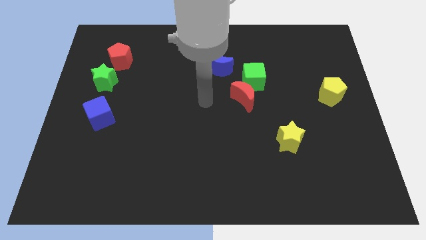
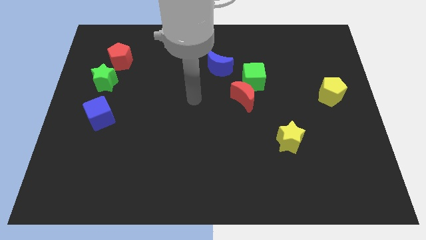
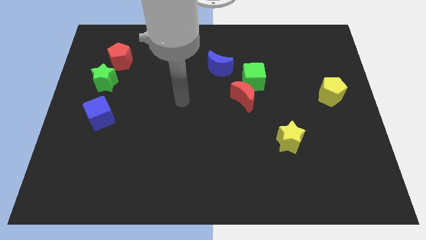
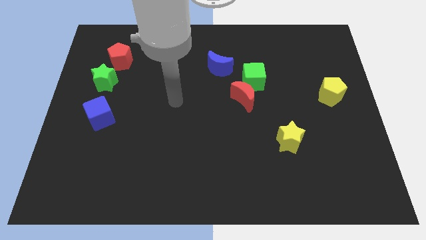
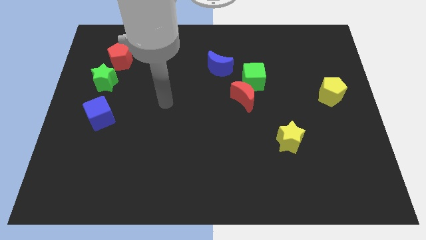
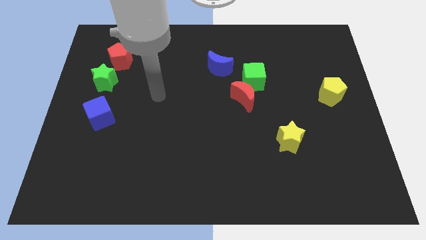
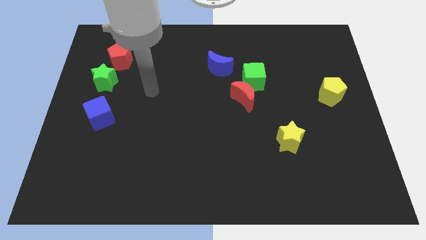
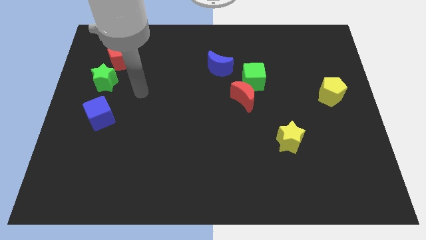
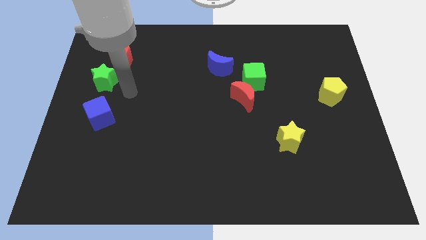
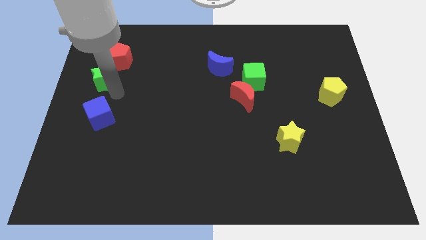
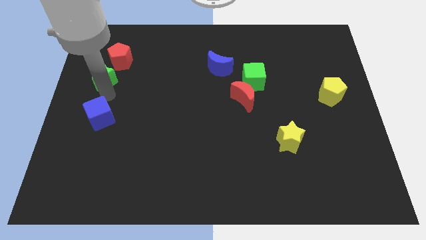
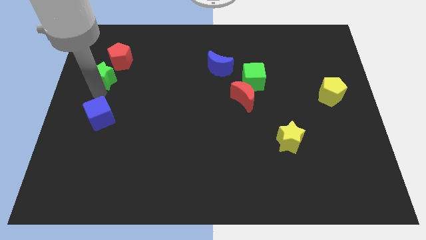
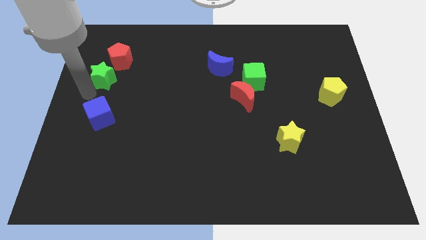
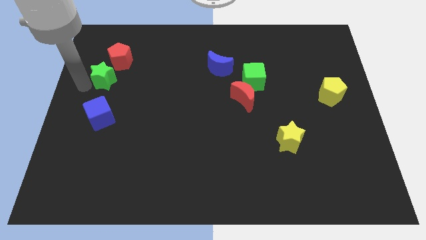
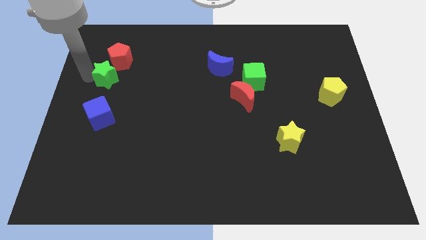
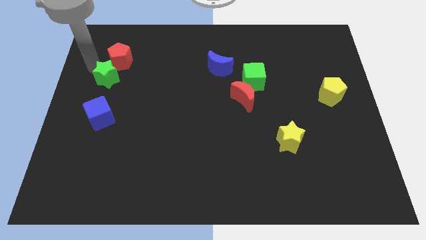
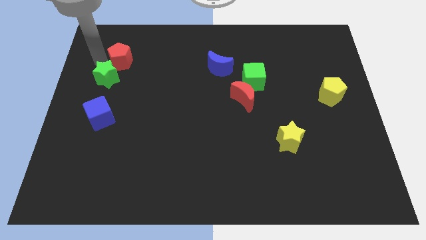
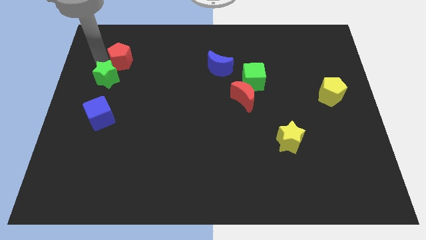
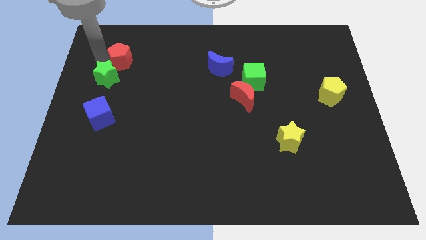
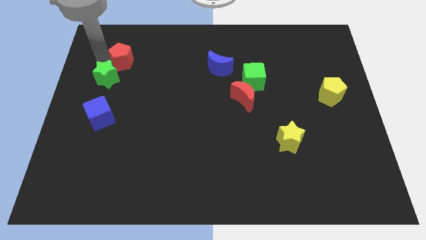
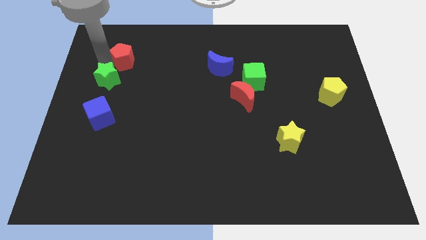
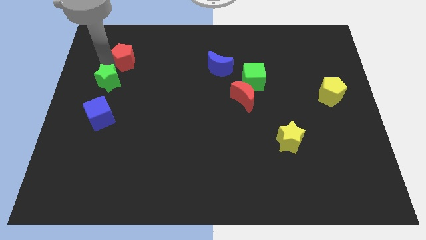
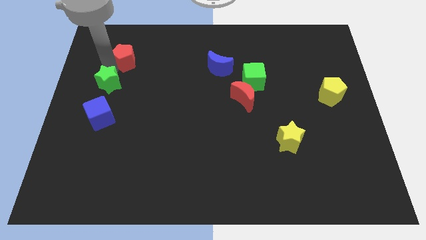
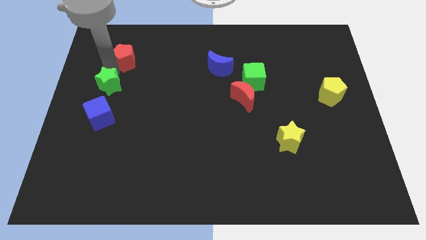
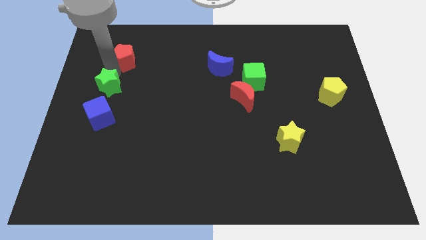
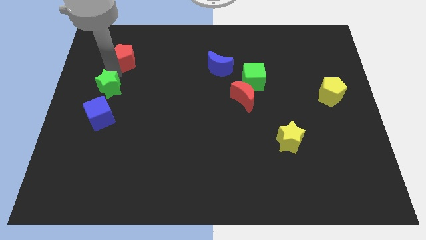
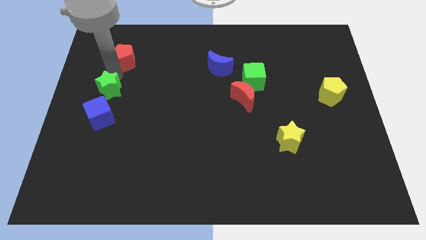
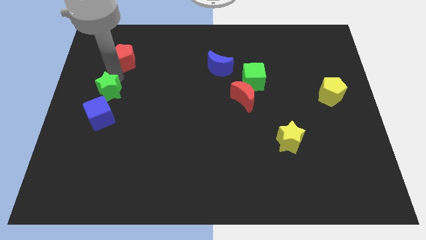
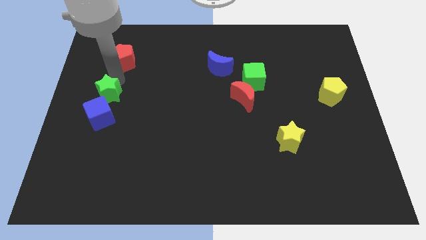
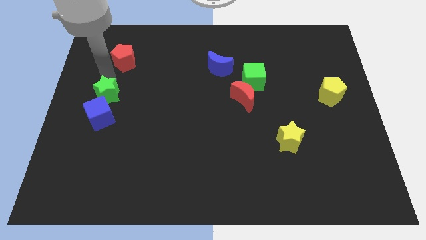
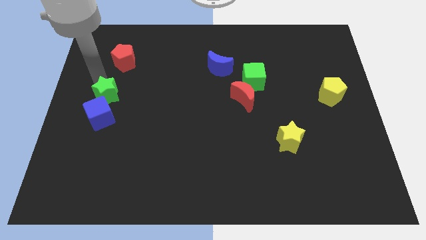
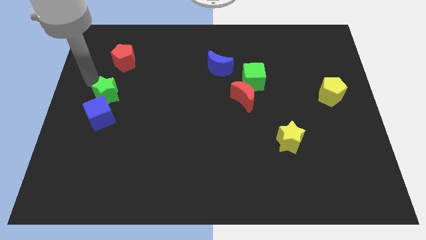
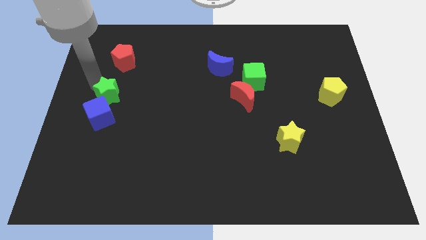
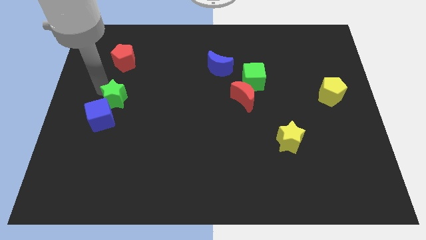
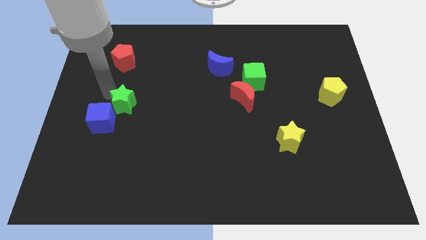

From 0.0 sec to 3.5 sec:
slightly move the green star down and right

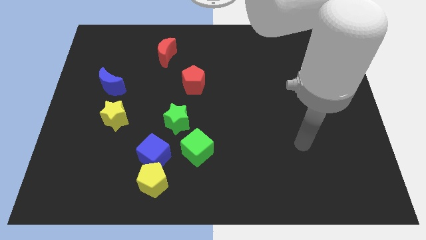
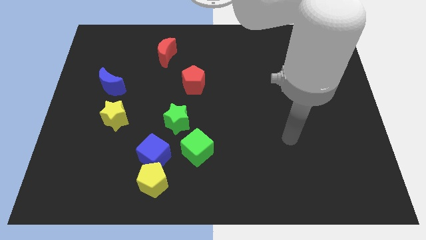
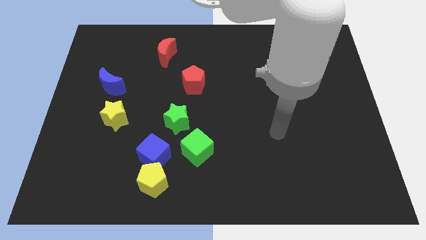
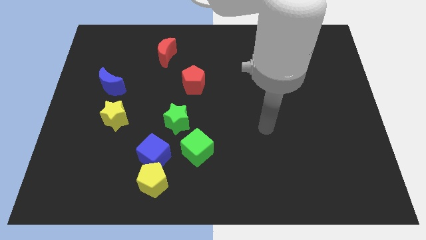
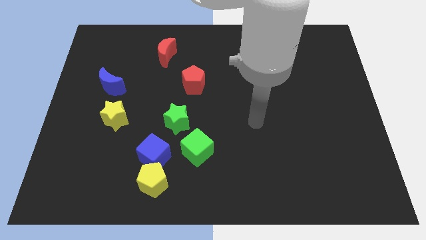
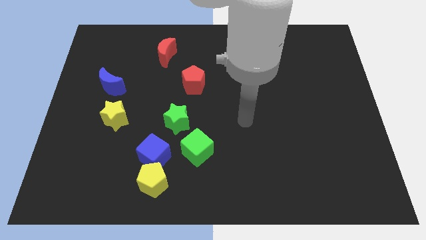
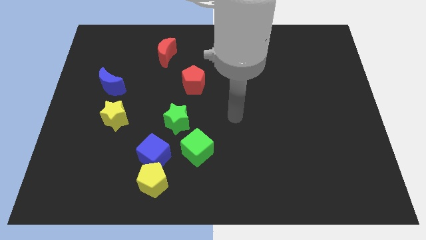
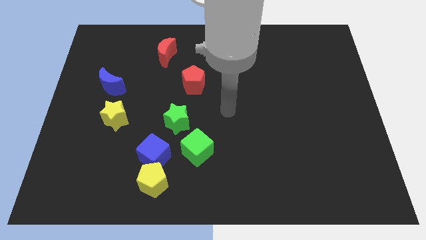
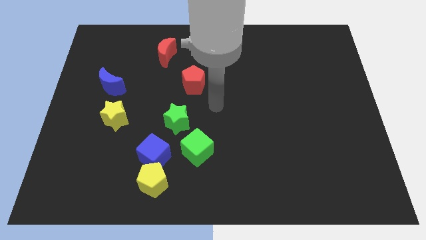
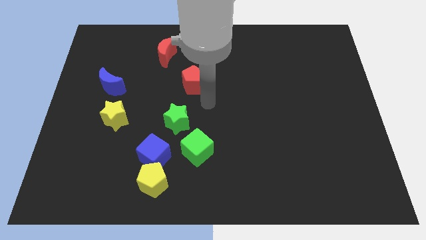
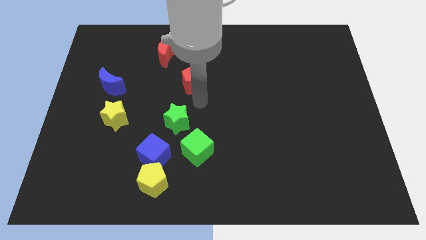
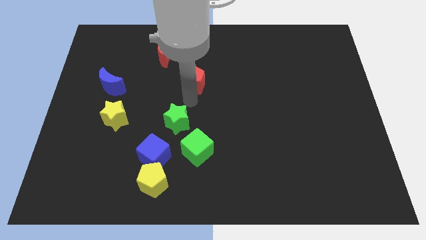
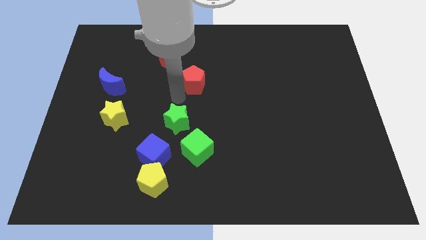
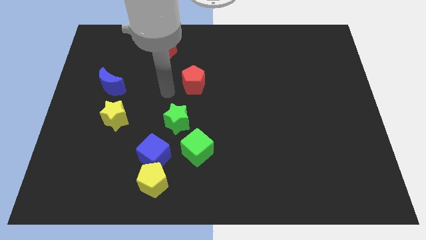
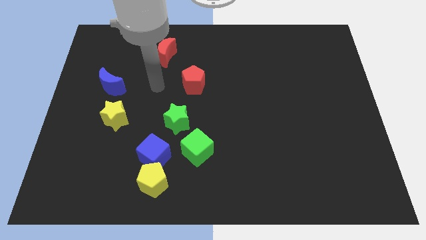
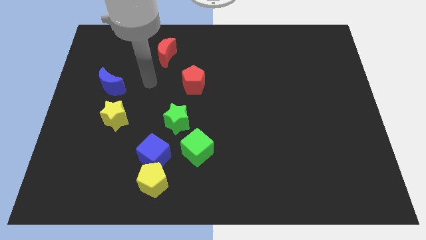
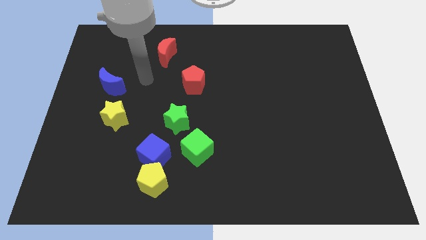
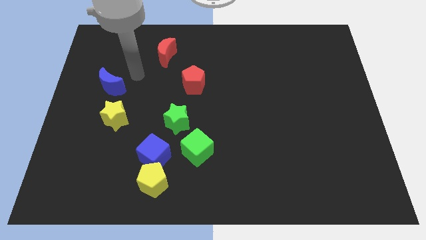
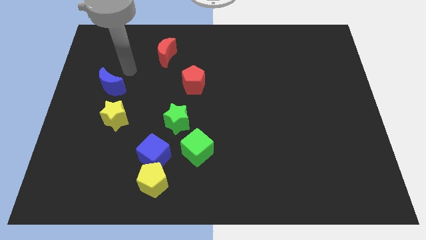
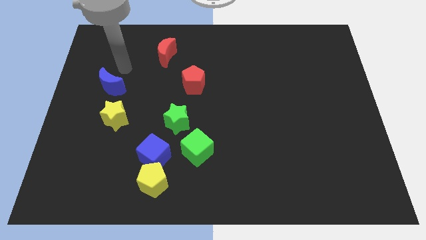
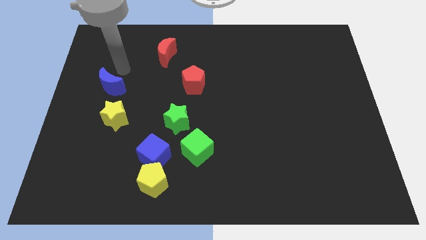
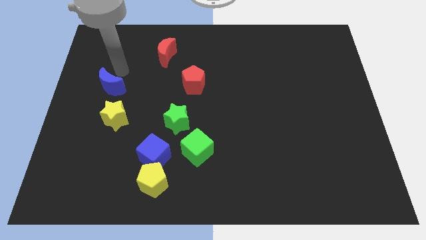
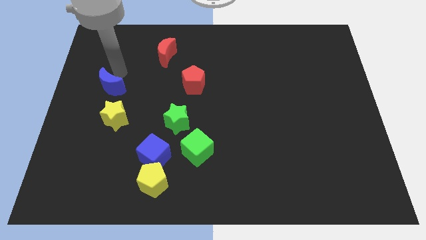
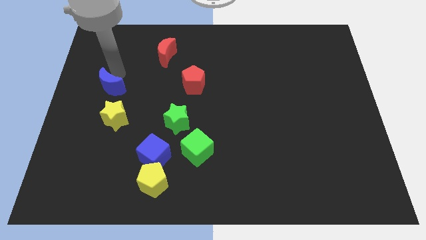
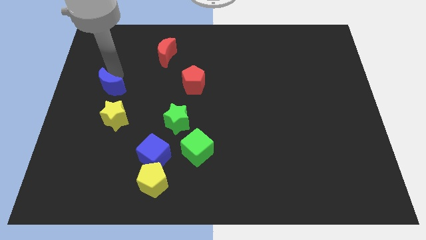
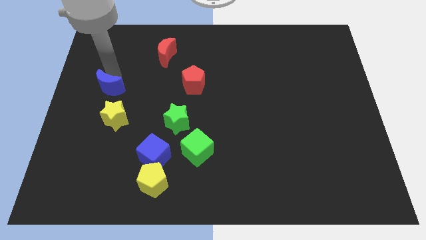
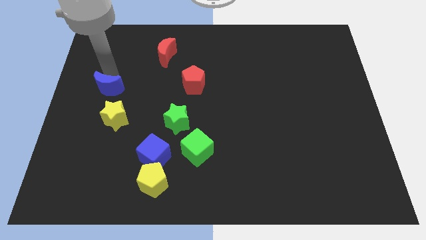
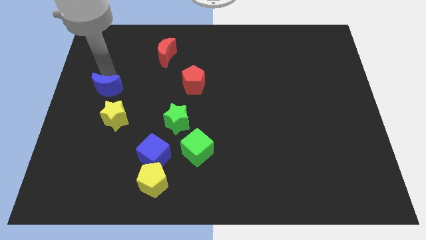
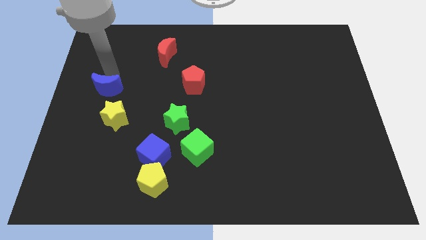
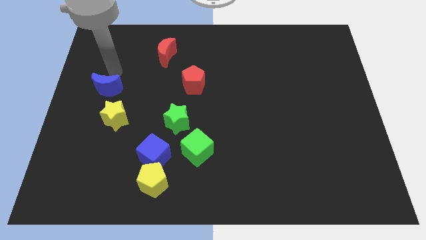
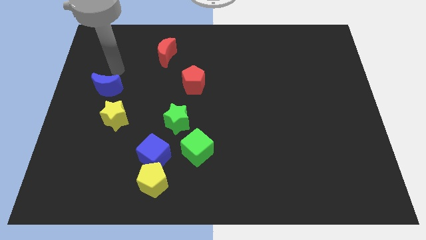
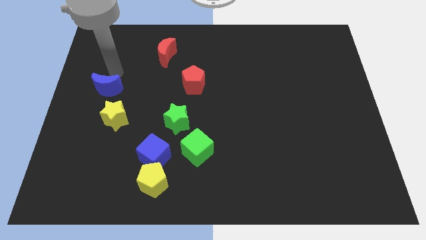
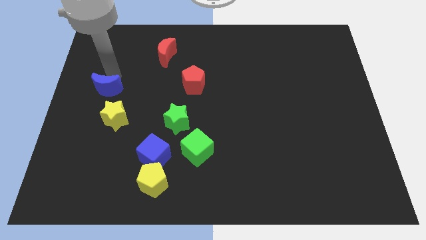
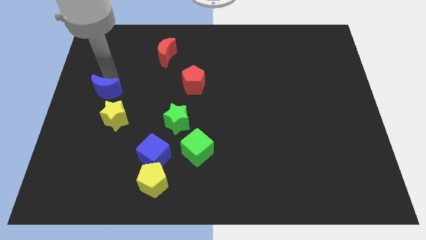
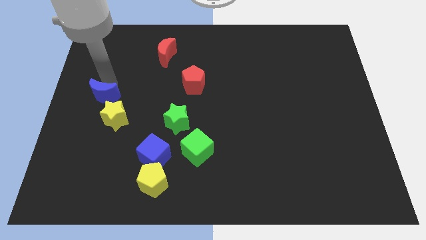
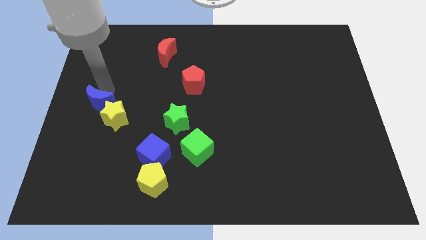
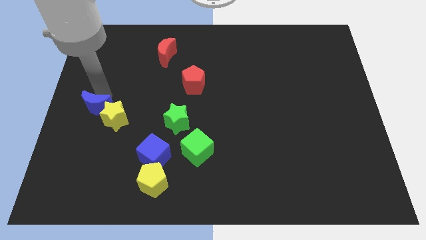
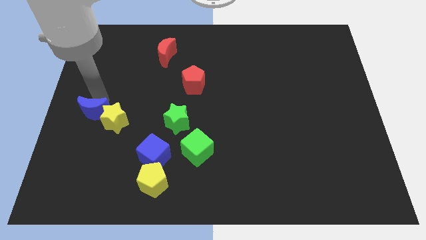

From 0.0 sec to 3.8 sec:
move the blue moon down a bit

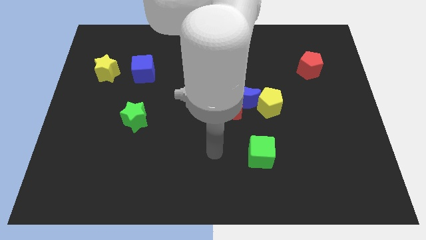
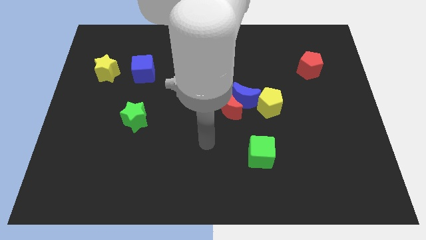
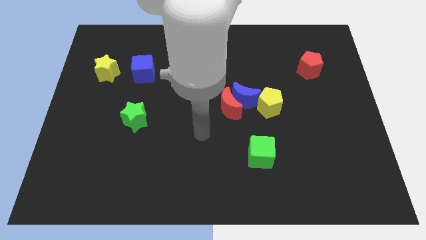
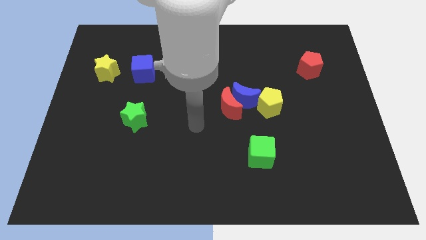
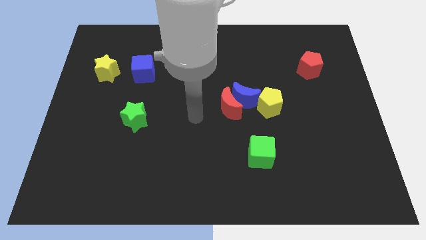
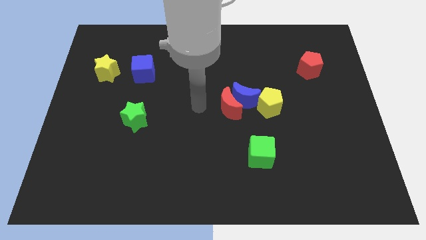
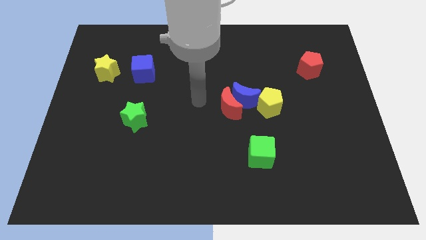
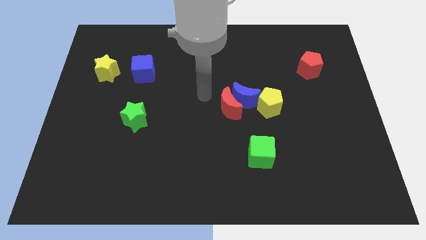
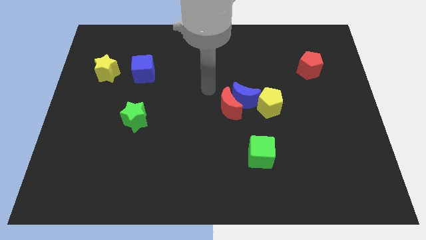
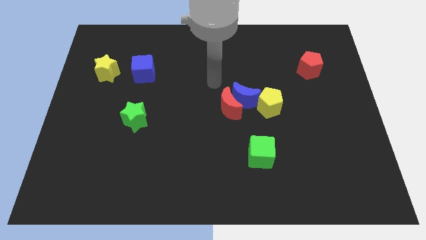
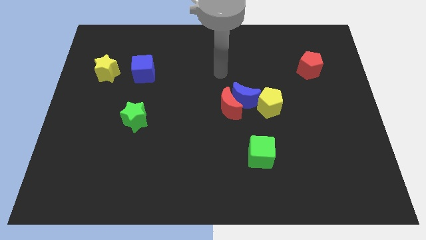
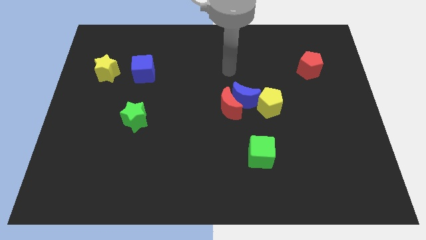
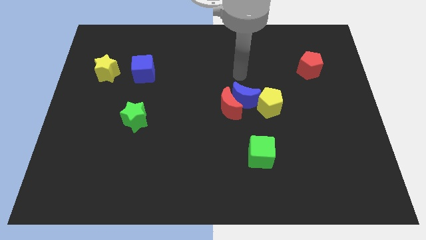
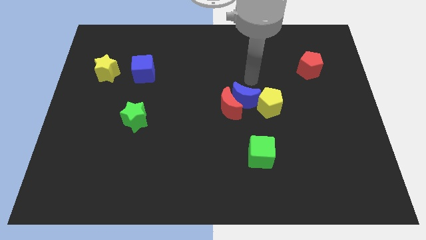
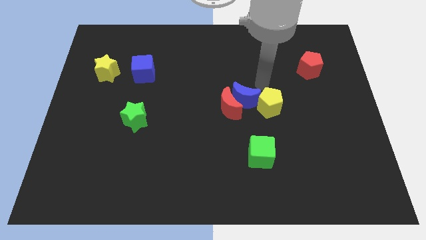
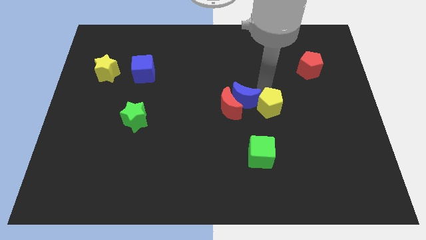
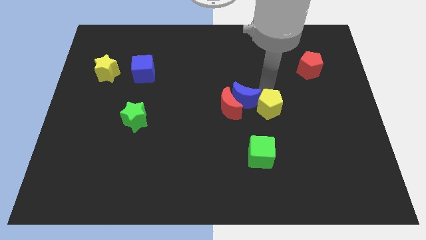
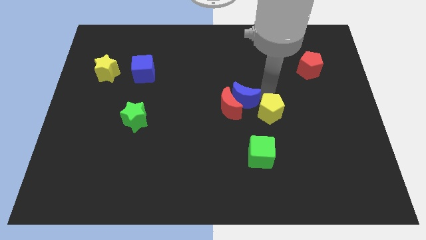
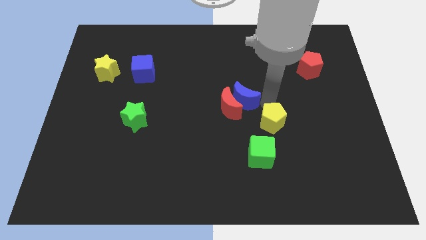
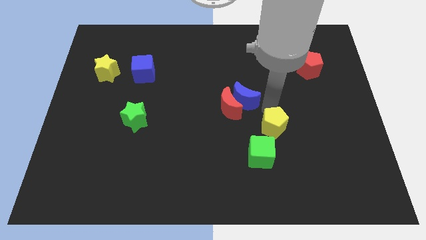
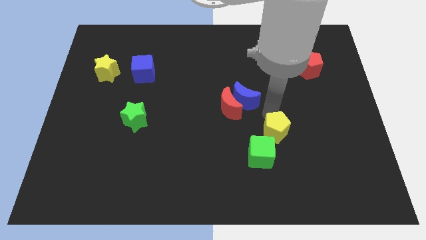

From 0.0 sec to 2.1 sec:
slightly slide the yellow pentagon downwards
